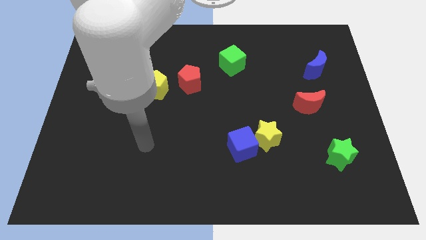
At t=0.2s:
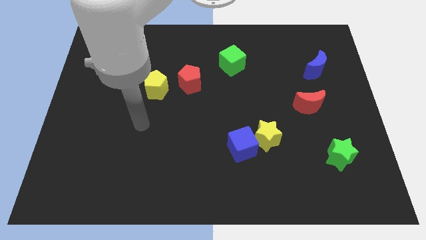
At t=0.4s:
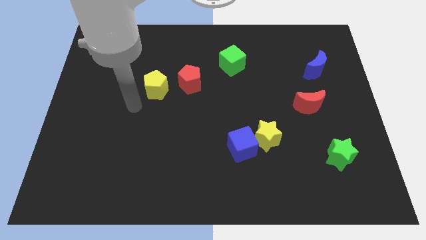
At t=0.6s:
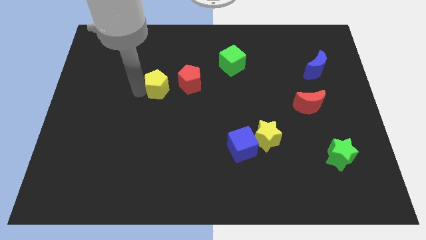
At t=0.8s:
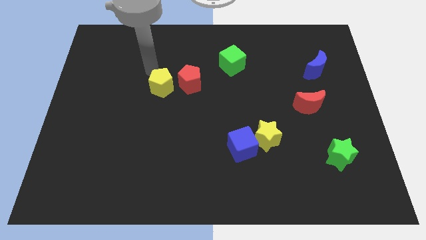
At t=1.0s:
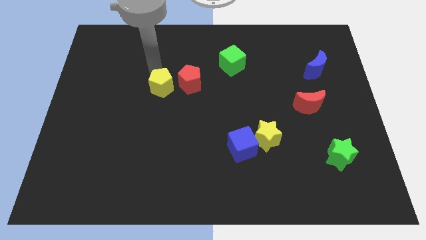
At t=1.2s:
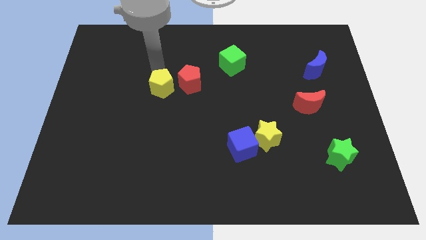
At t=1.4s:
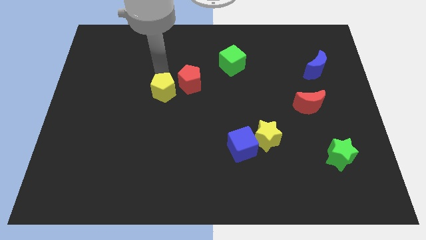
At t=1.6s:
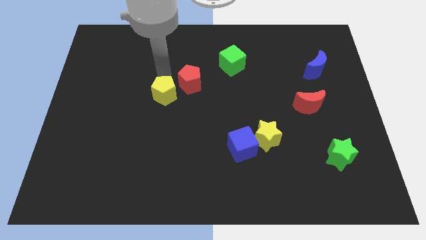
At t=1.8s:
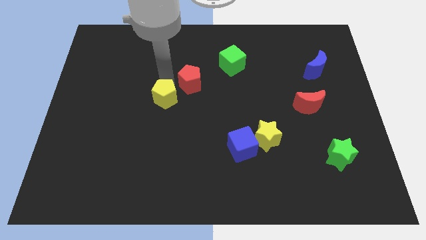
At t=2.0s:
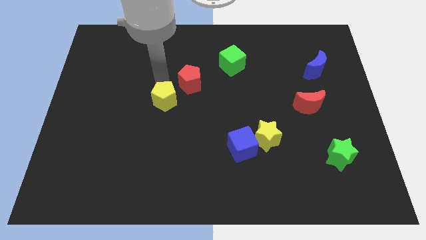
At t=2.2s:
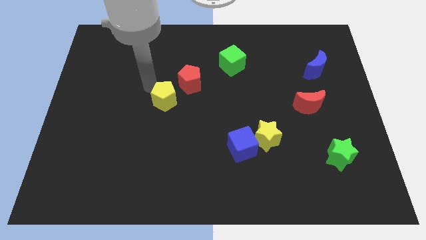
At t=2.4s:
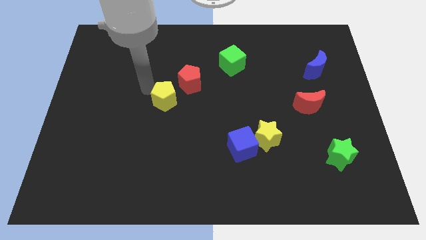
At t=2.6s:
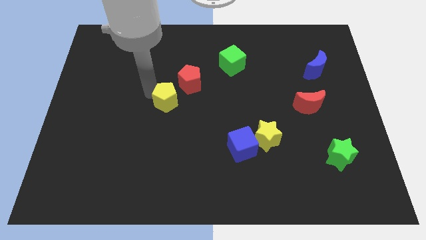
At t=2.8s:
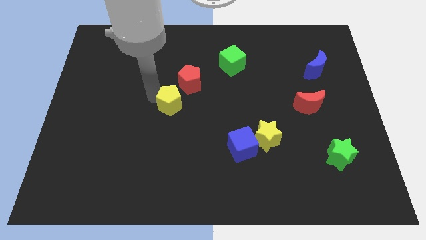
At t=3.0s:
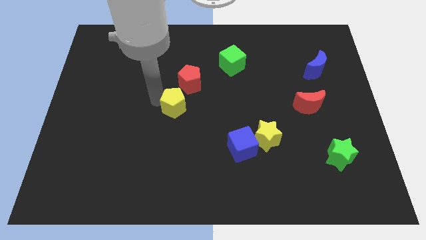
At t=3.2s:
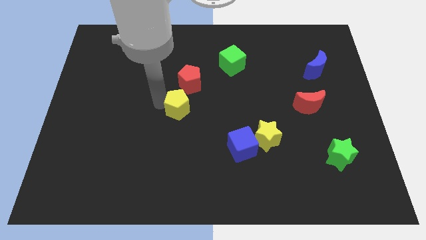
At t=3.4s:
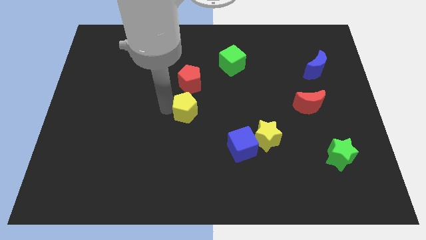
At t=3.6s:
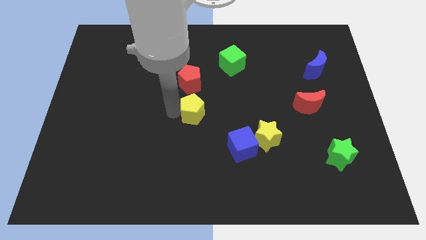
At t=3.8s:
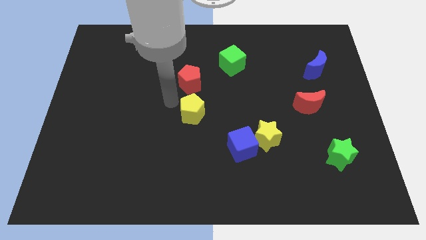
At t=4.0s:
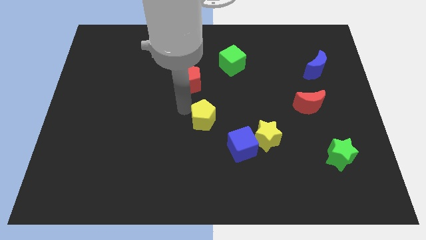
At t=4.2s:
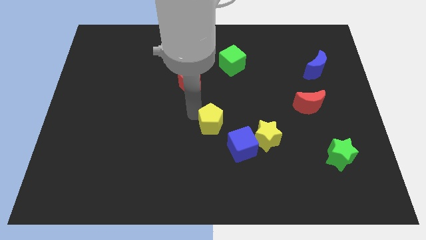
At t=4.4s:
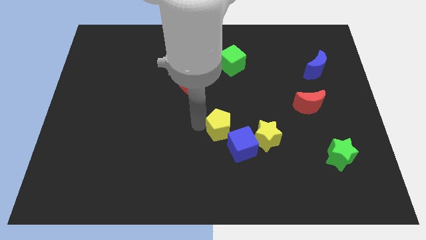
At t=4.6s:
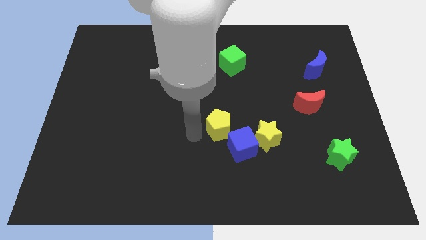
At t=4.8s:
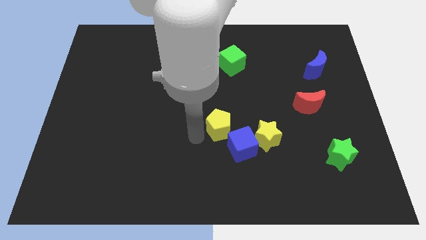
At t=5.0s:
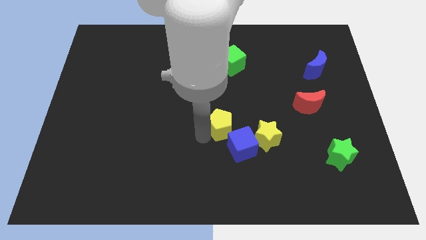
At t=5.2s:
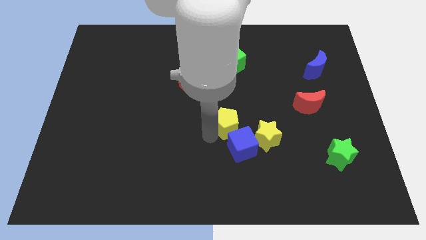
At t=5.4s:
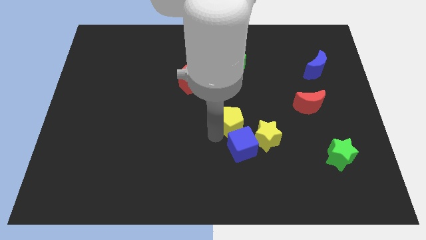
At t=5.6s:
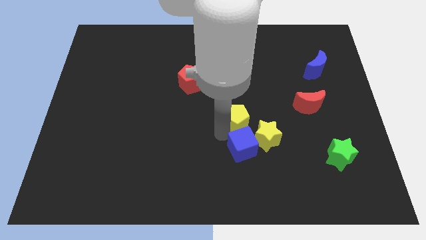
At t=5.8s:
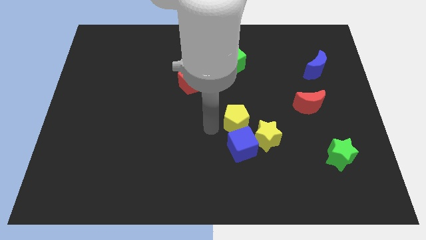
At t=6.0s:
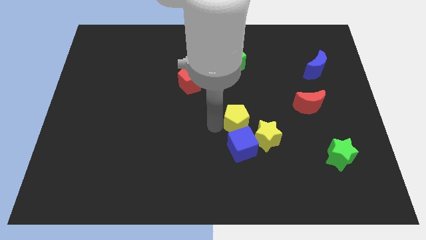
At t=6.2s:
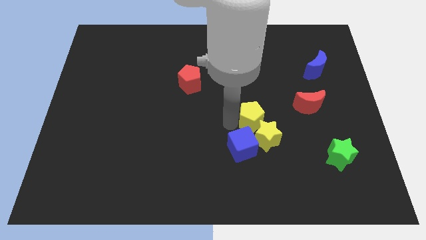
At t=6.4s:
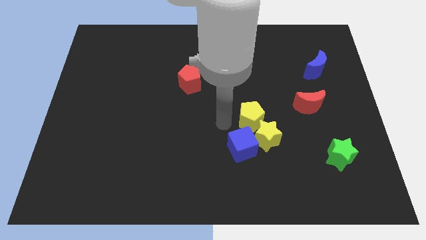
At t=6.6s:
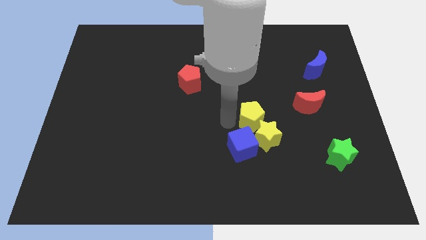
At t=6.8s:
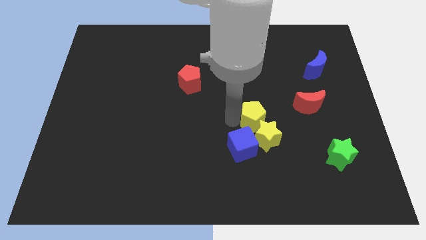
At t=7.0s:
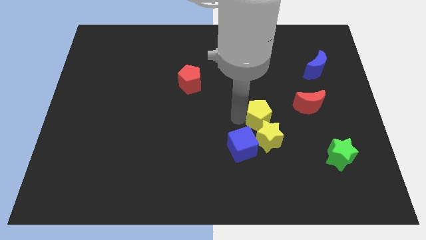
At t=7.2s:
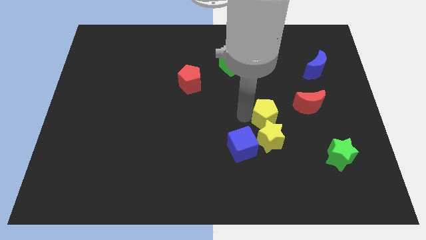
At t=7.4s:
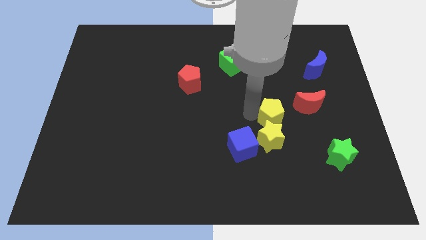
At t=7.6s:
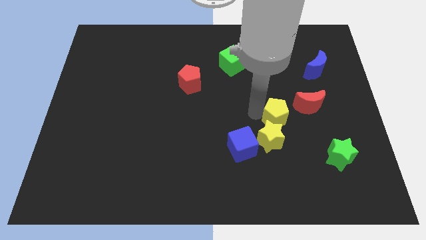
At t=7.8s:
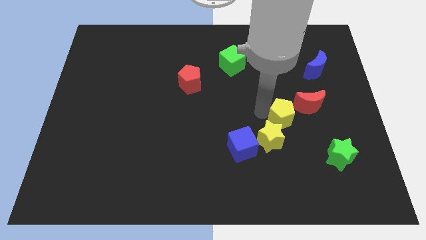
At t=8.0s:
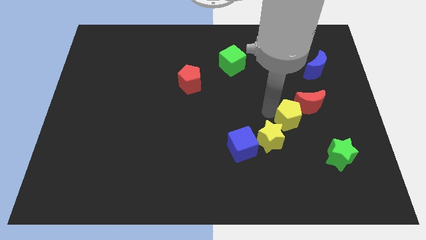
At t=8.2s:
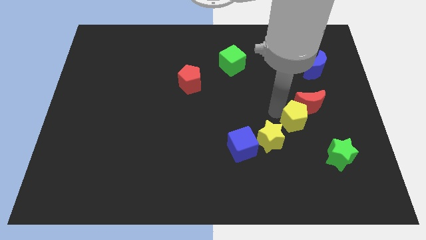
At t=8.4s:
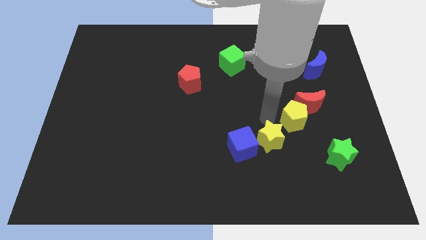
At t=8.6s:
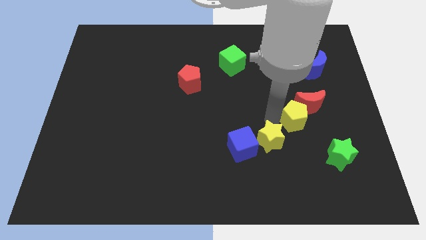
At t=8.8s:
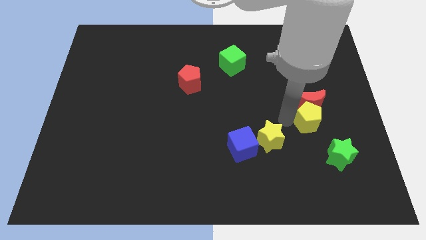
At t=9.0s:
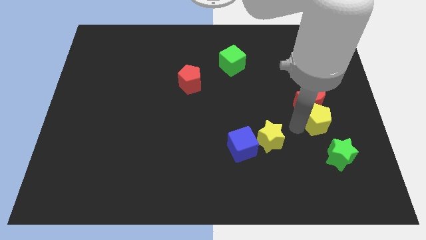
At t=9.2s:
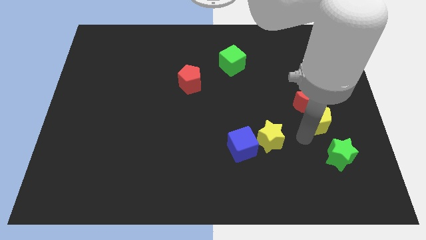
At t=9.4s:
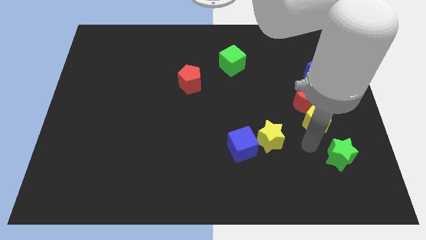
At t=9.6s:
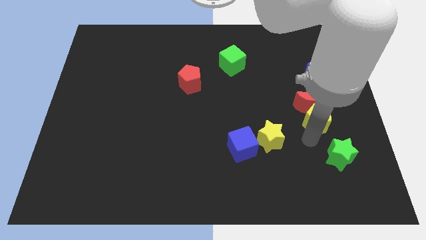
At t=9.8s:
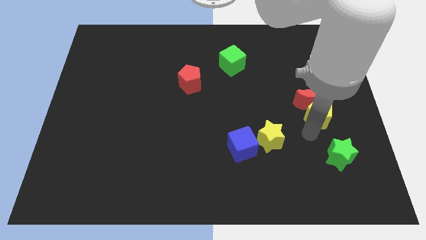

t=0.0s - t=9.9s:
move the yellow pentagon below the blue moon

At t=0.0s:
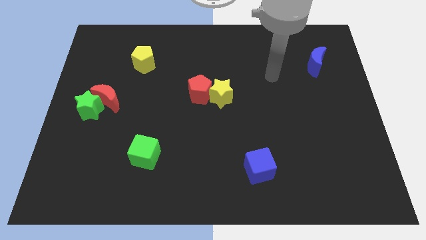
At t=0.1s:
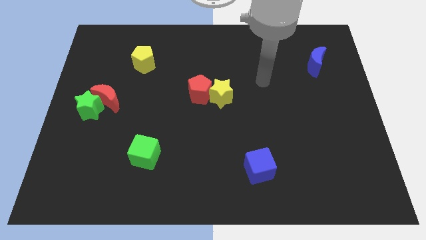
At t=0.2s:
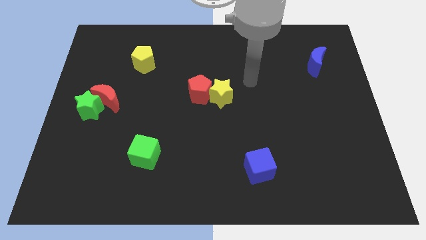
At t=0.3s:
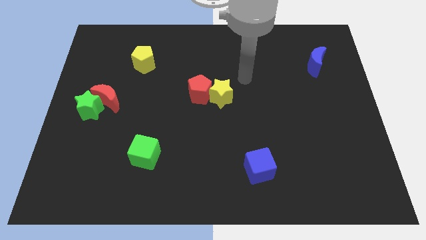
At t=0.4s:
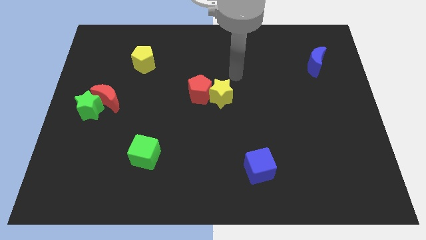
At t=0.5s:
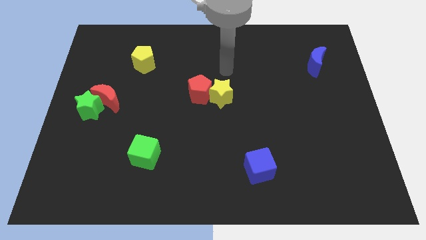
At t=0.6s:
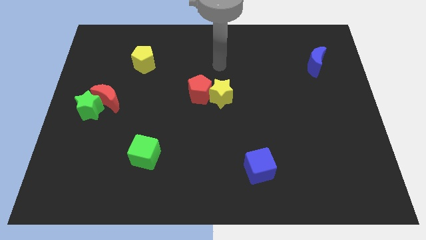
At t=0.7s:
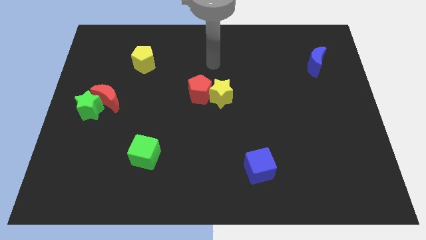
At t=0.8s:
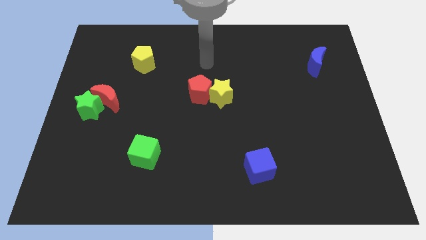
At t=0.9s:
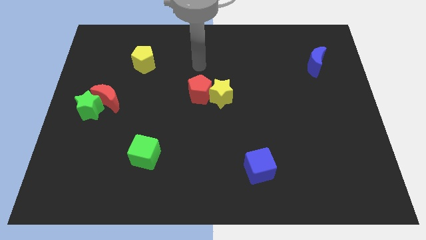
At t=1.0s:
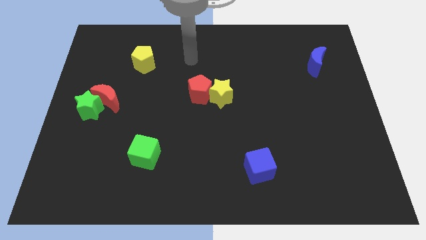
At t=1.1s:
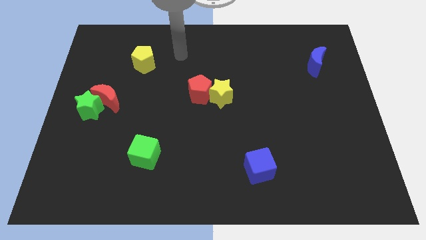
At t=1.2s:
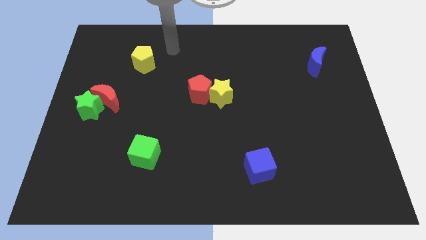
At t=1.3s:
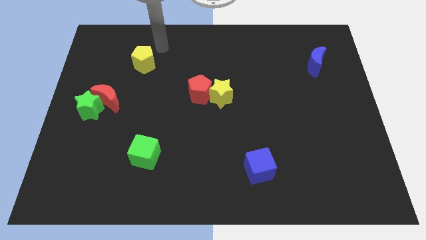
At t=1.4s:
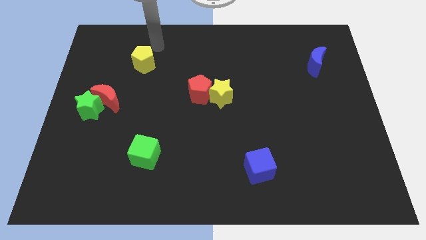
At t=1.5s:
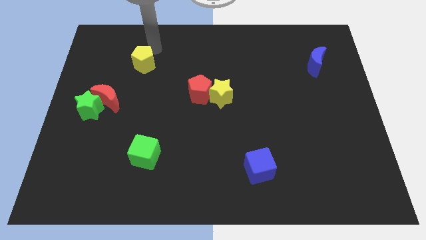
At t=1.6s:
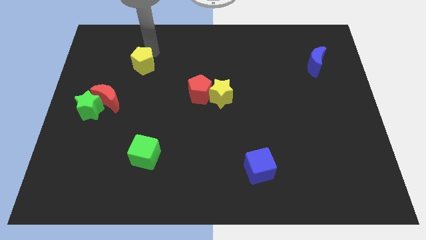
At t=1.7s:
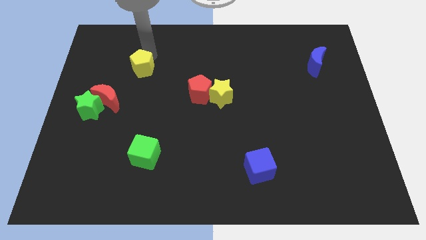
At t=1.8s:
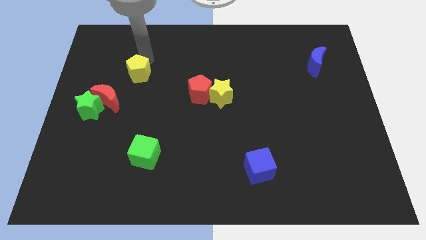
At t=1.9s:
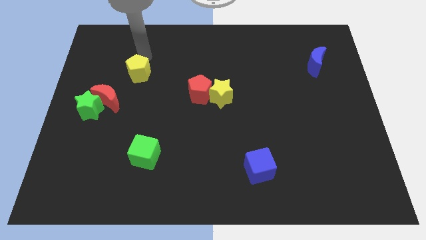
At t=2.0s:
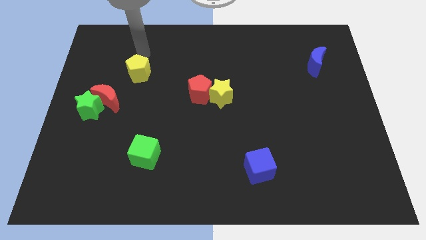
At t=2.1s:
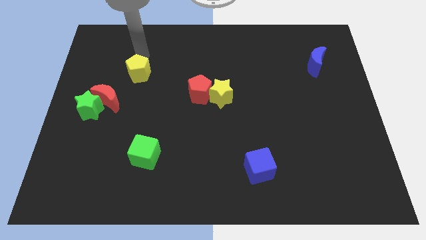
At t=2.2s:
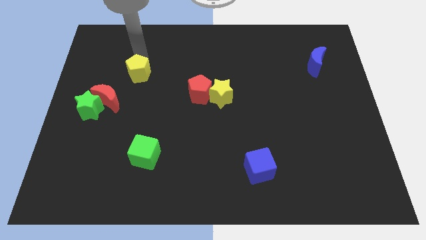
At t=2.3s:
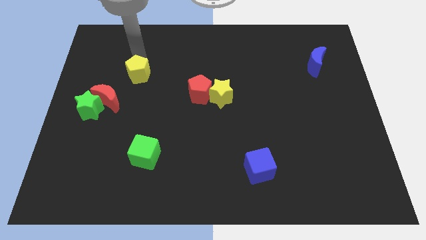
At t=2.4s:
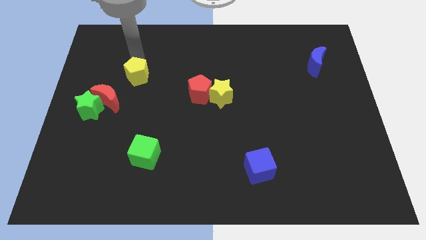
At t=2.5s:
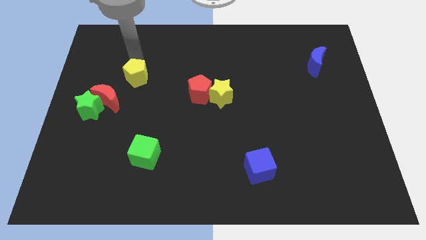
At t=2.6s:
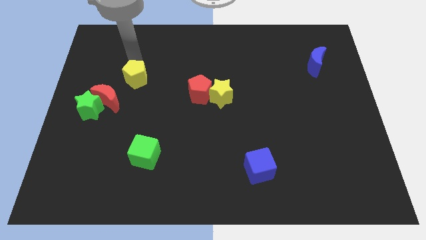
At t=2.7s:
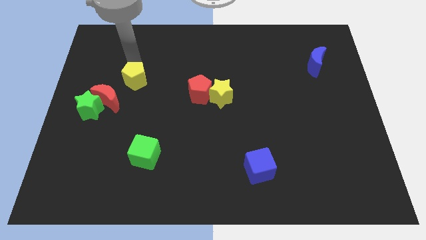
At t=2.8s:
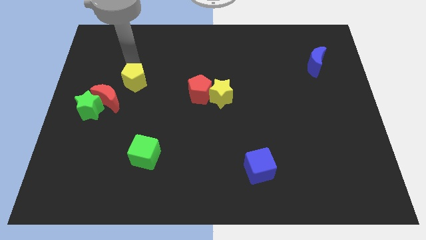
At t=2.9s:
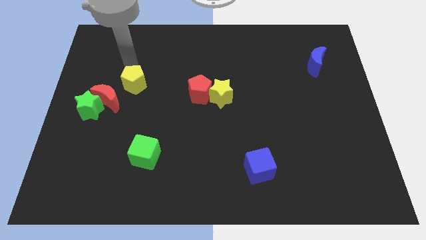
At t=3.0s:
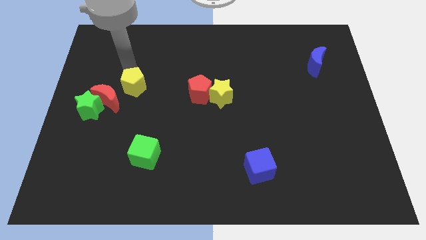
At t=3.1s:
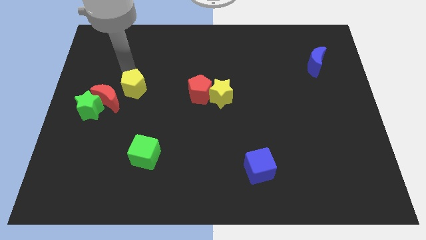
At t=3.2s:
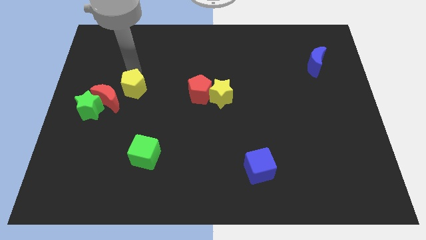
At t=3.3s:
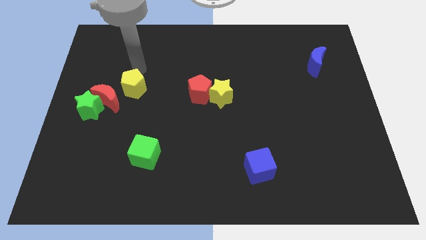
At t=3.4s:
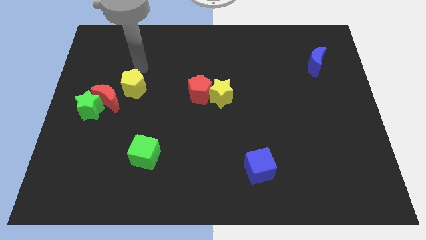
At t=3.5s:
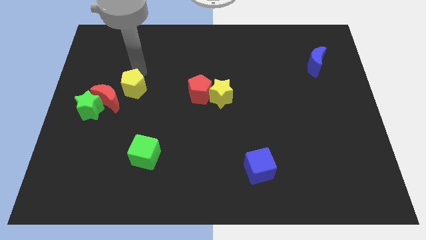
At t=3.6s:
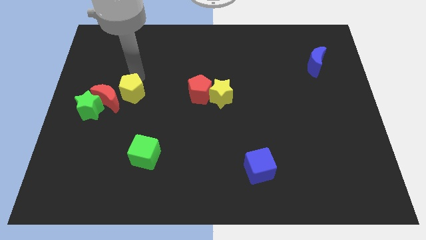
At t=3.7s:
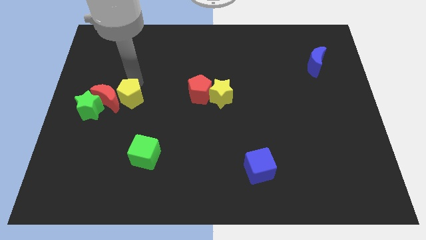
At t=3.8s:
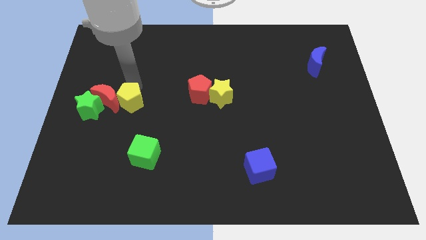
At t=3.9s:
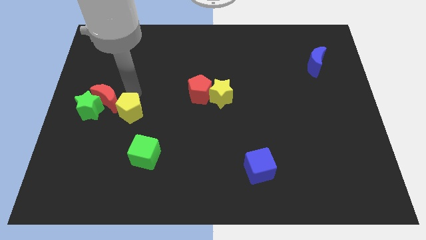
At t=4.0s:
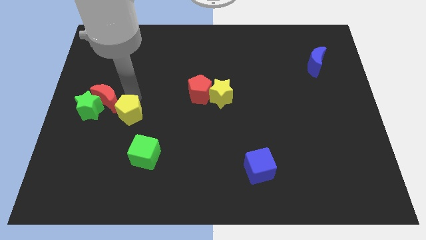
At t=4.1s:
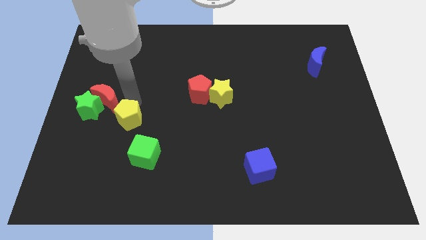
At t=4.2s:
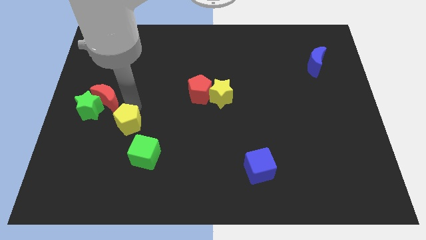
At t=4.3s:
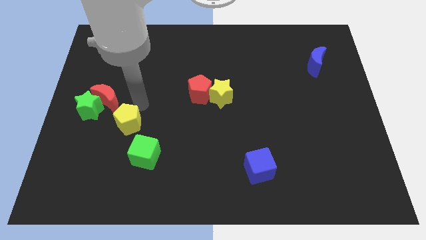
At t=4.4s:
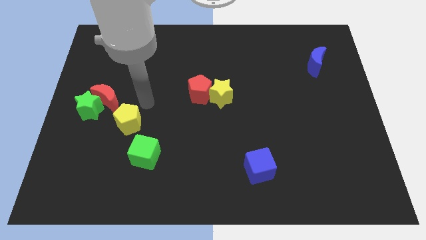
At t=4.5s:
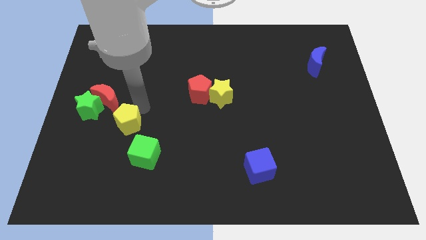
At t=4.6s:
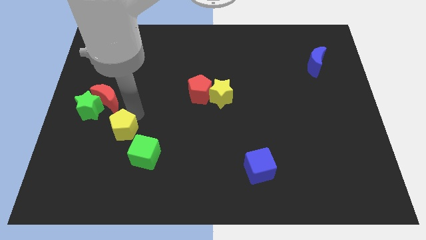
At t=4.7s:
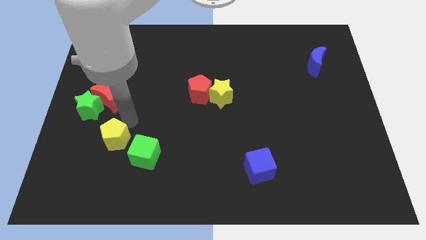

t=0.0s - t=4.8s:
move the yellow pentagon left of the green cube
